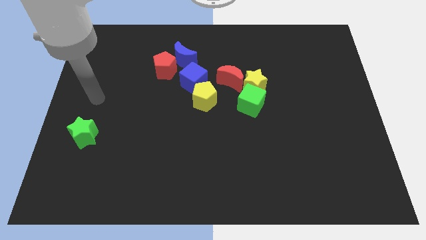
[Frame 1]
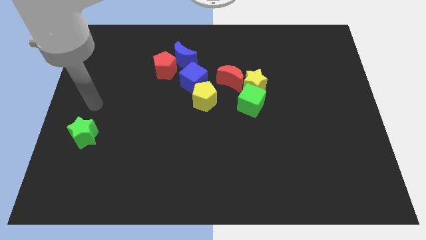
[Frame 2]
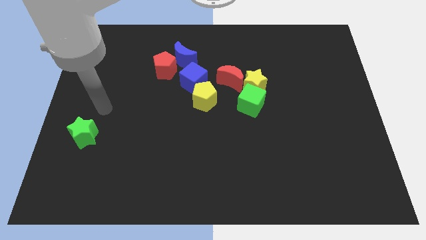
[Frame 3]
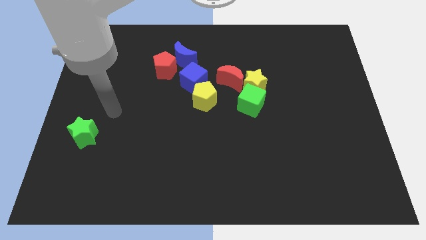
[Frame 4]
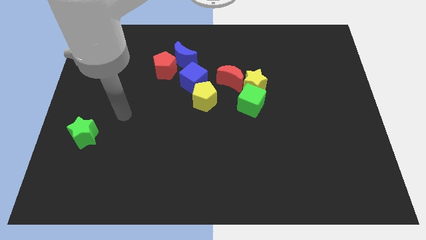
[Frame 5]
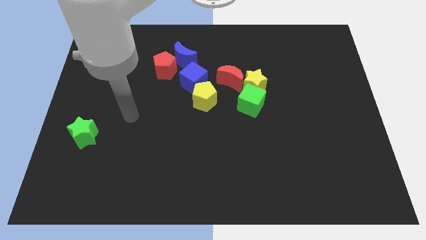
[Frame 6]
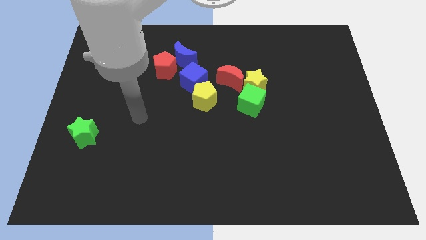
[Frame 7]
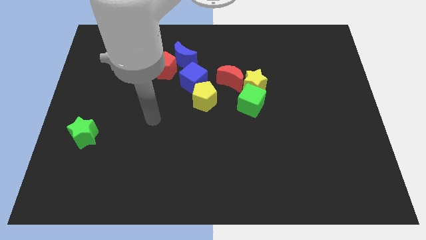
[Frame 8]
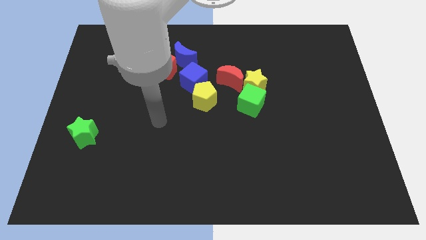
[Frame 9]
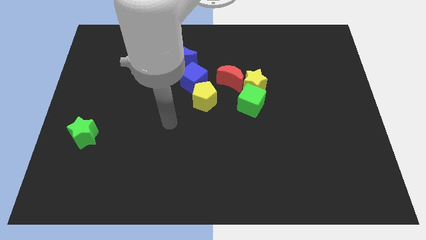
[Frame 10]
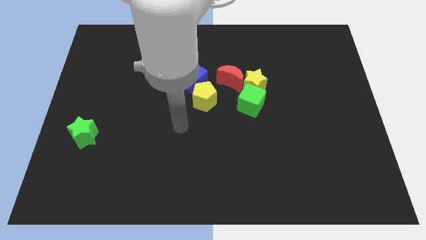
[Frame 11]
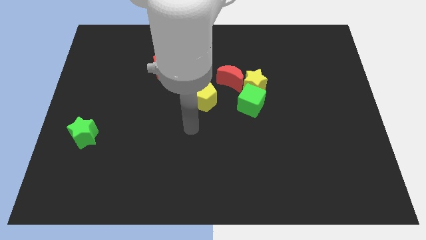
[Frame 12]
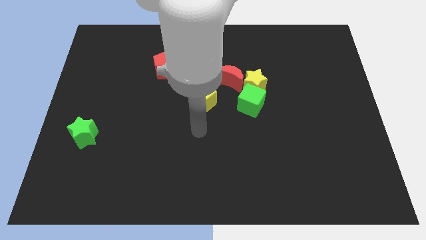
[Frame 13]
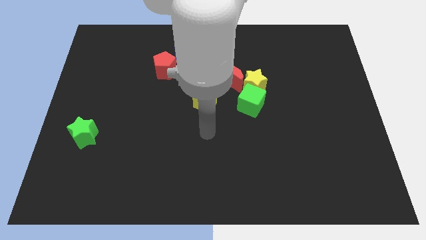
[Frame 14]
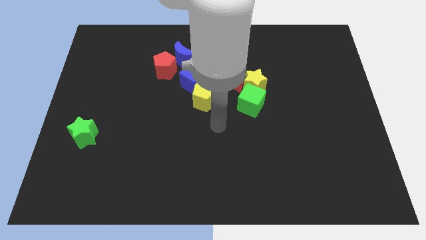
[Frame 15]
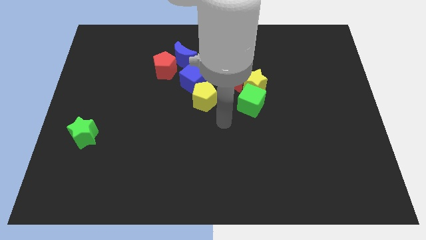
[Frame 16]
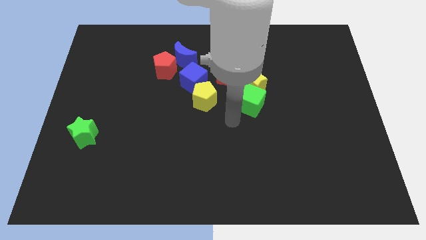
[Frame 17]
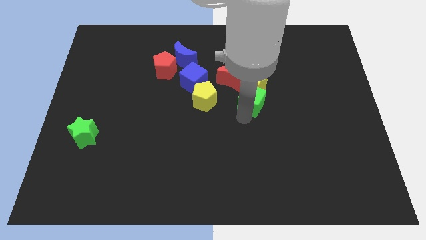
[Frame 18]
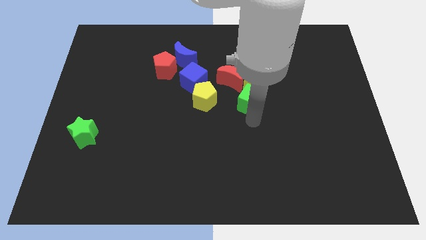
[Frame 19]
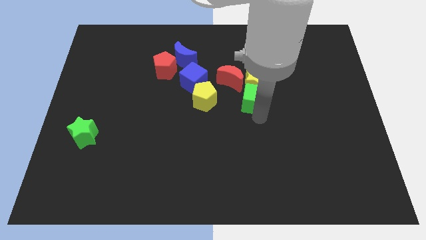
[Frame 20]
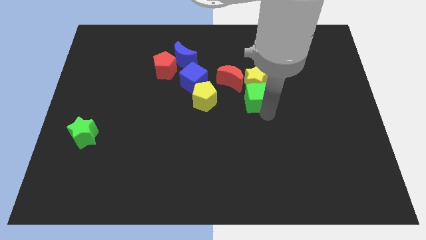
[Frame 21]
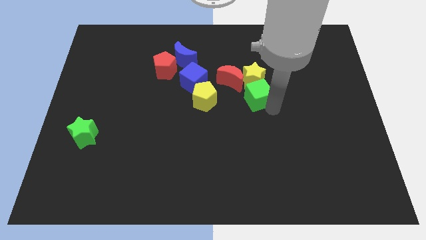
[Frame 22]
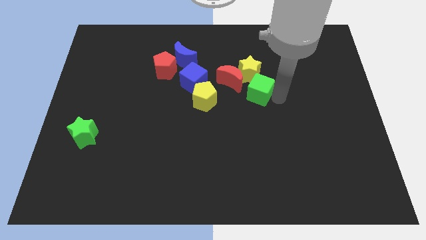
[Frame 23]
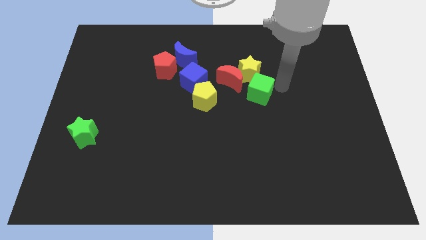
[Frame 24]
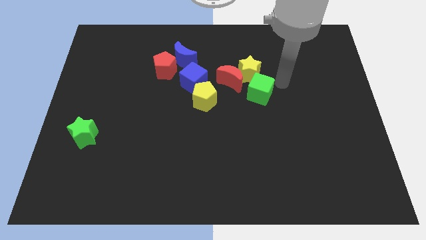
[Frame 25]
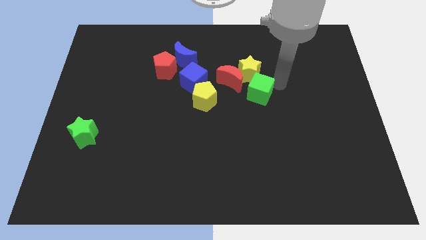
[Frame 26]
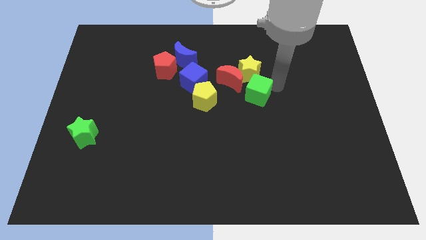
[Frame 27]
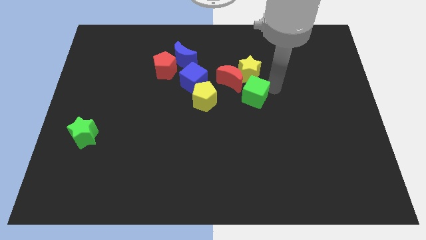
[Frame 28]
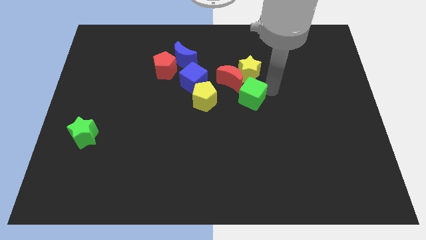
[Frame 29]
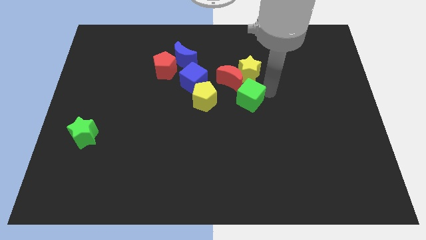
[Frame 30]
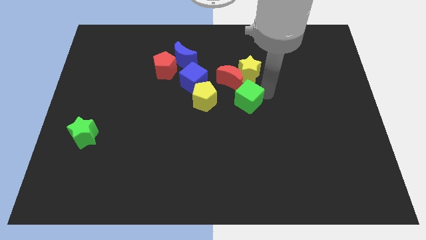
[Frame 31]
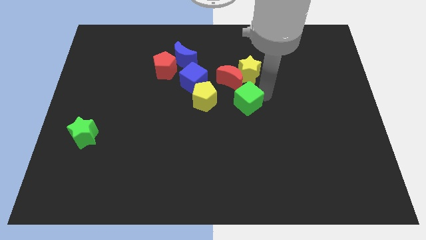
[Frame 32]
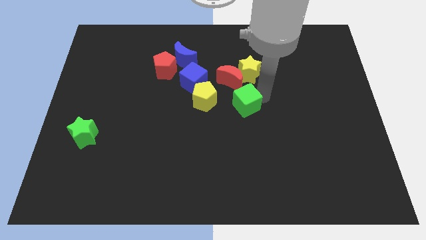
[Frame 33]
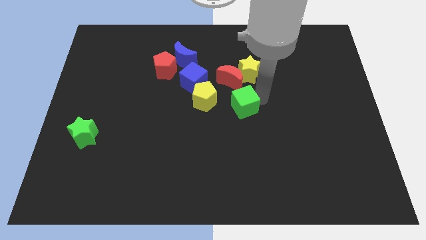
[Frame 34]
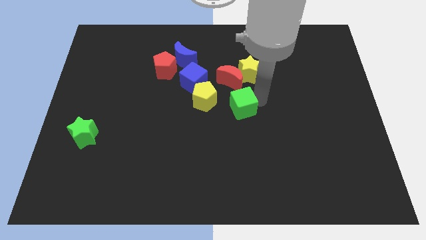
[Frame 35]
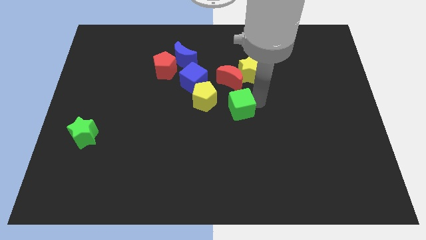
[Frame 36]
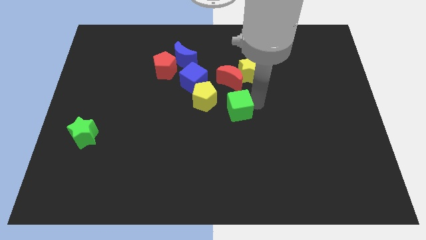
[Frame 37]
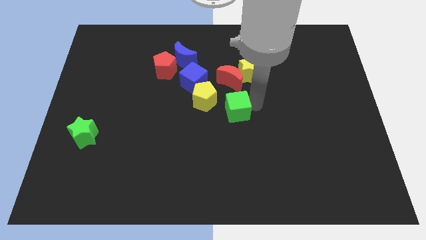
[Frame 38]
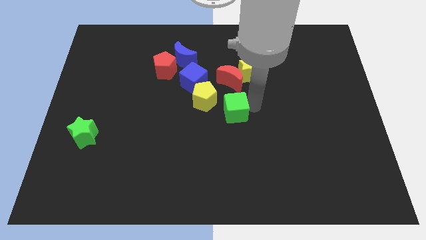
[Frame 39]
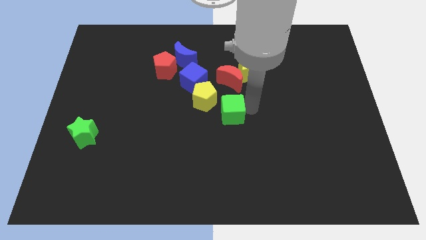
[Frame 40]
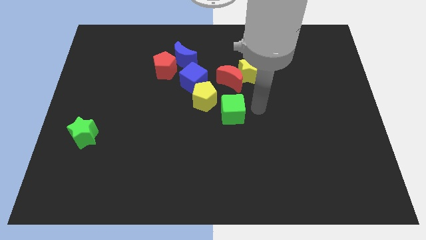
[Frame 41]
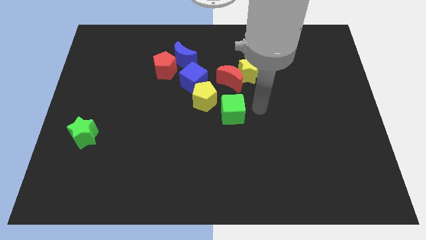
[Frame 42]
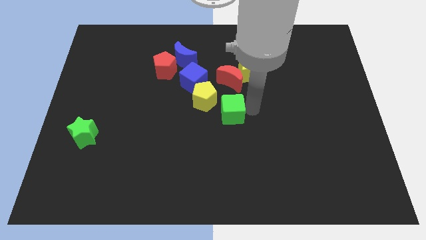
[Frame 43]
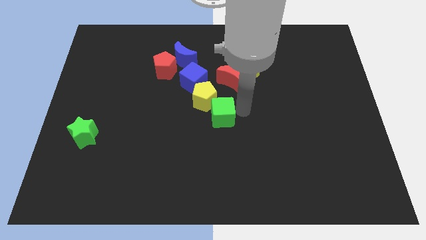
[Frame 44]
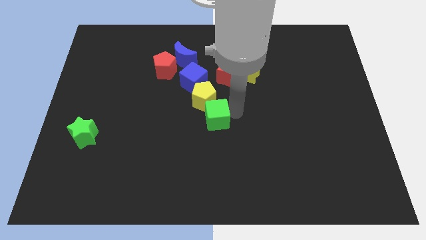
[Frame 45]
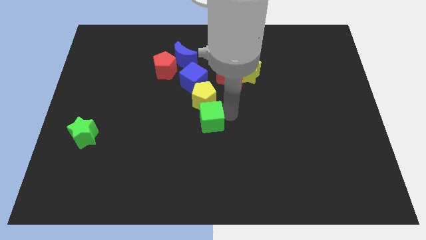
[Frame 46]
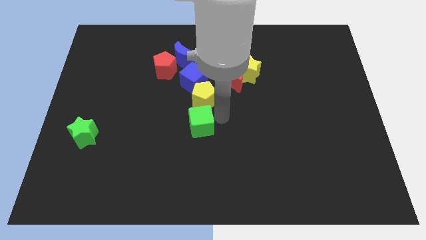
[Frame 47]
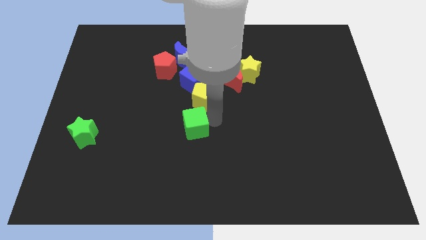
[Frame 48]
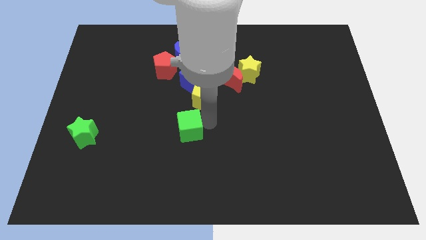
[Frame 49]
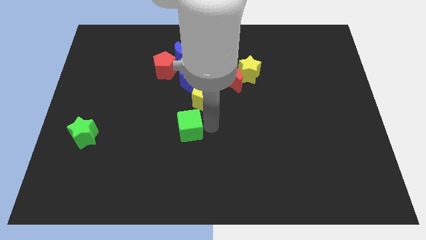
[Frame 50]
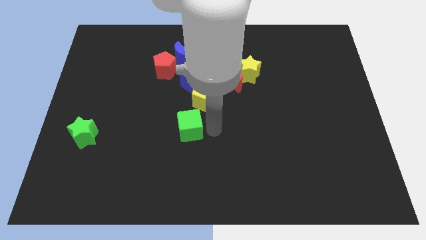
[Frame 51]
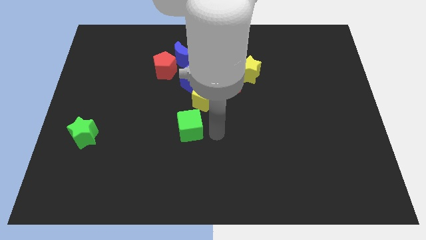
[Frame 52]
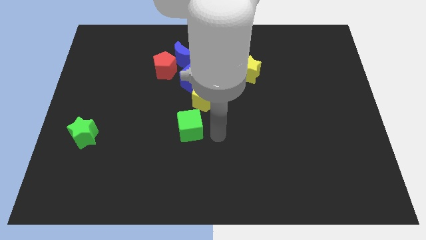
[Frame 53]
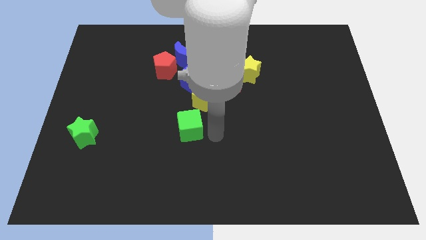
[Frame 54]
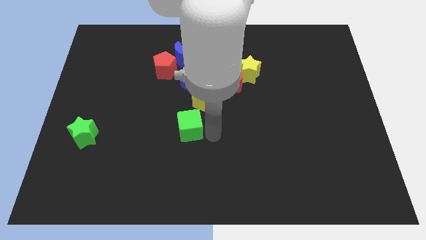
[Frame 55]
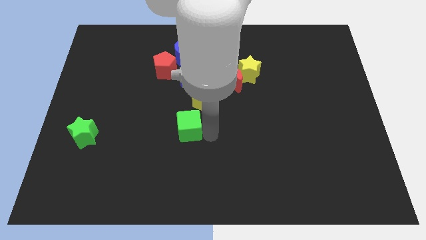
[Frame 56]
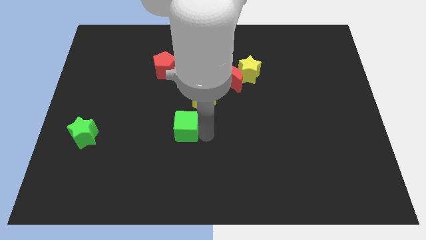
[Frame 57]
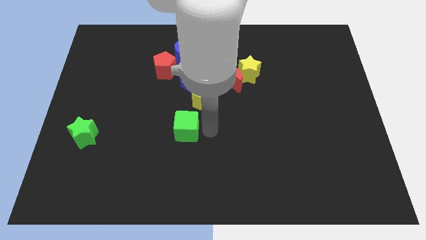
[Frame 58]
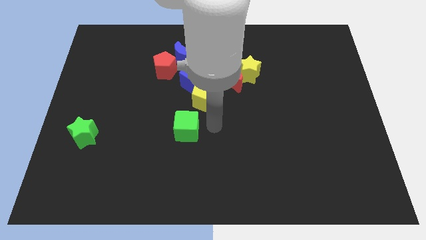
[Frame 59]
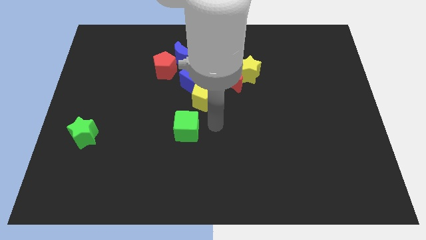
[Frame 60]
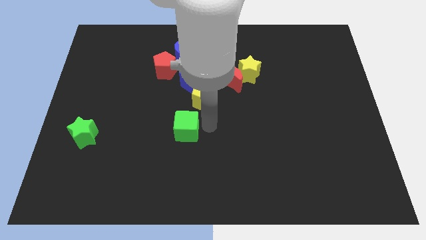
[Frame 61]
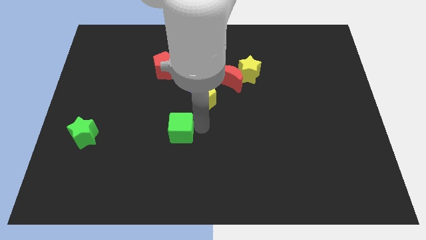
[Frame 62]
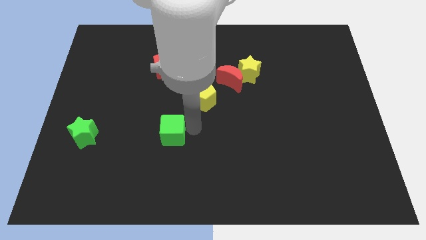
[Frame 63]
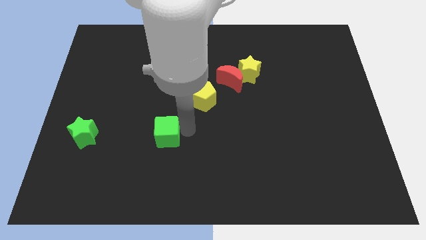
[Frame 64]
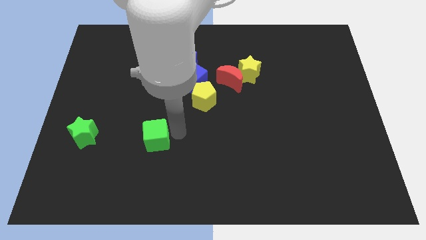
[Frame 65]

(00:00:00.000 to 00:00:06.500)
move the green cube to the right of the green star
